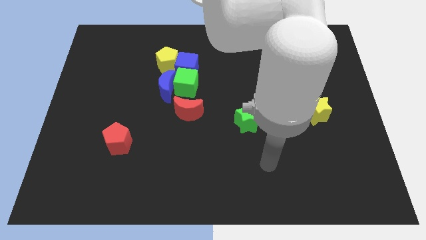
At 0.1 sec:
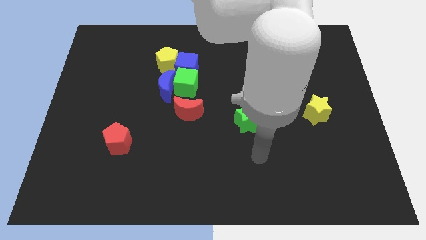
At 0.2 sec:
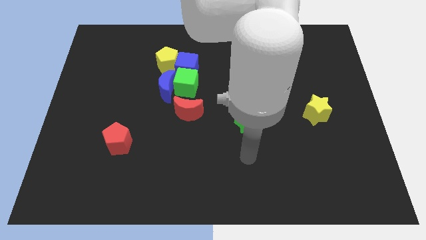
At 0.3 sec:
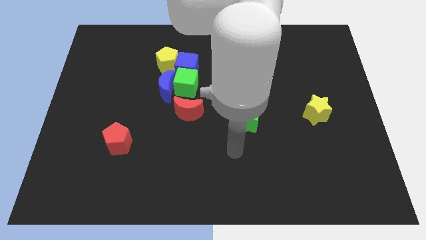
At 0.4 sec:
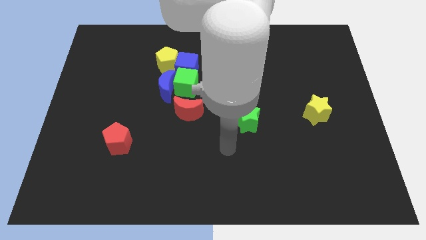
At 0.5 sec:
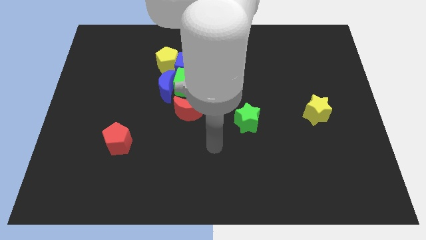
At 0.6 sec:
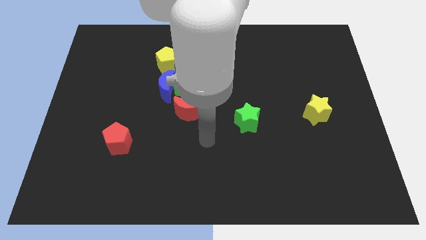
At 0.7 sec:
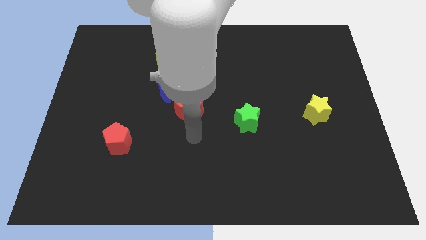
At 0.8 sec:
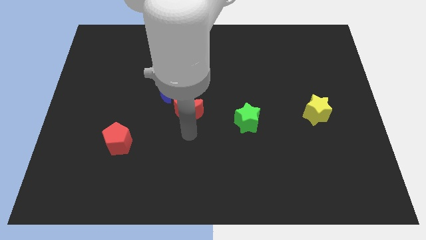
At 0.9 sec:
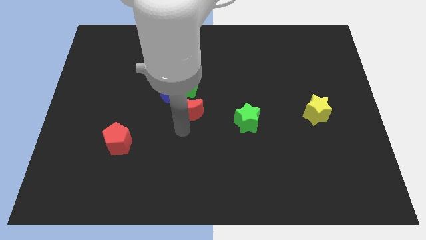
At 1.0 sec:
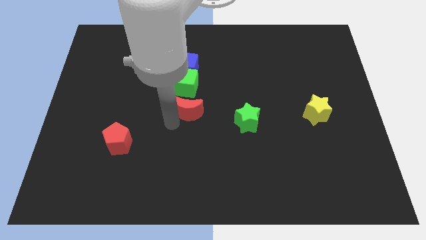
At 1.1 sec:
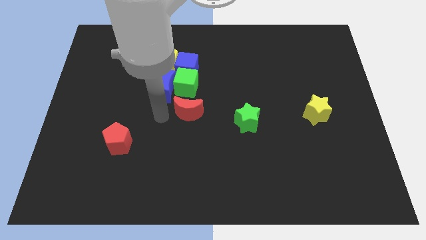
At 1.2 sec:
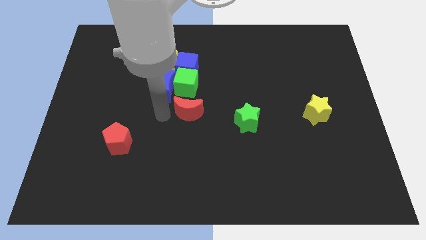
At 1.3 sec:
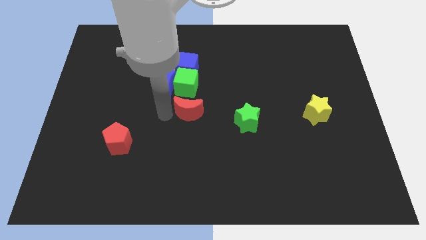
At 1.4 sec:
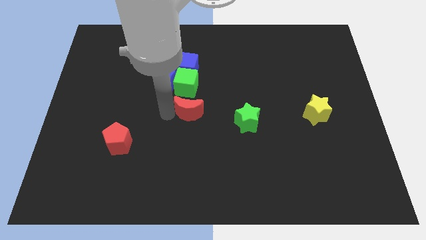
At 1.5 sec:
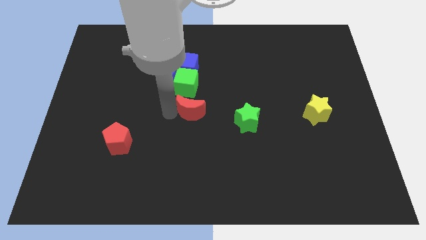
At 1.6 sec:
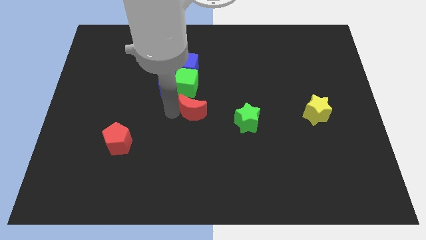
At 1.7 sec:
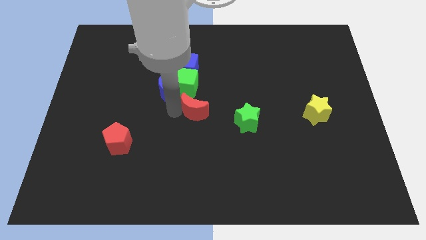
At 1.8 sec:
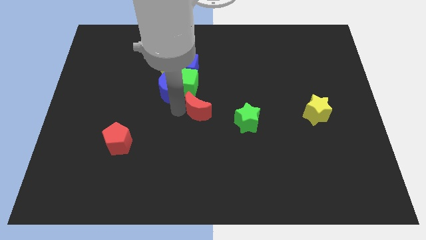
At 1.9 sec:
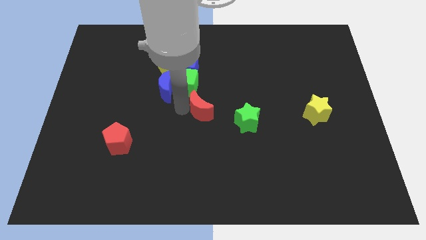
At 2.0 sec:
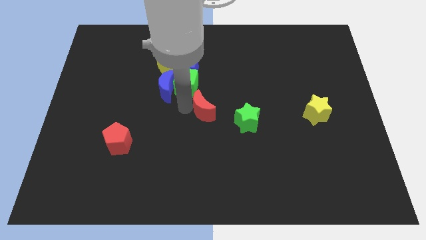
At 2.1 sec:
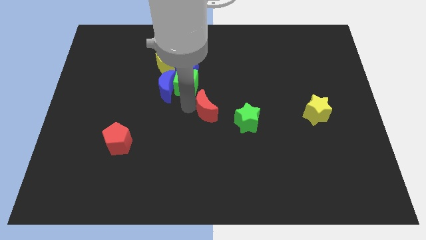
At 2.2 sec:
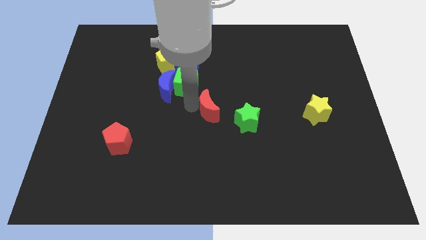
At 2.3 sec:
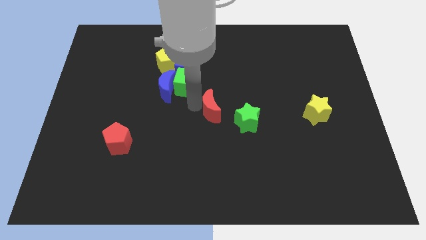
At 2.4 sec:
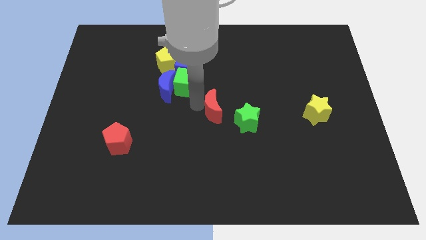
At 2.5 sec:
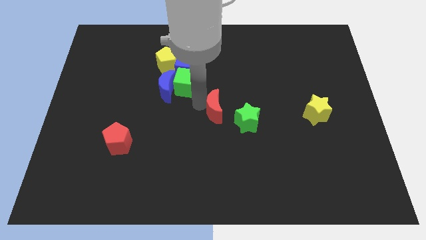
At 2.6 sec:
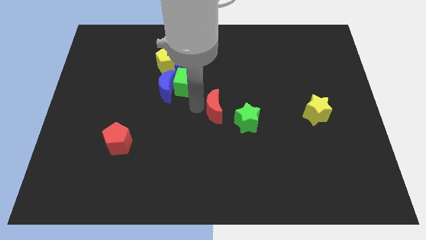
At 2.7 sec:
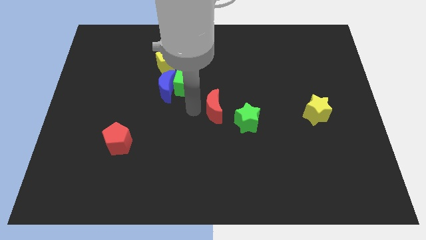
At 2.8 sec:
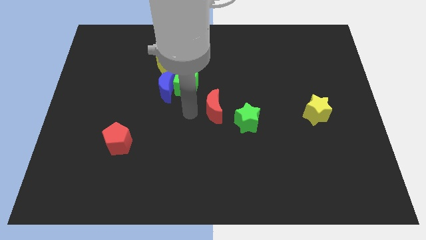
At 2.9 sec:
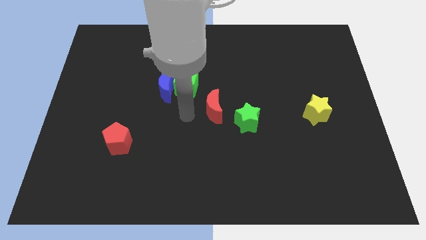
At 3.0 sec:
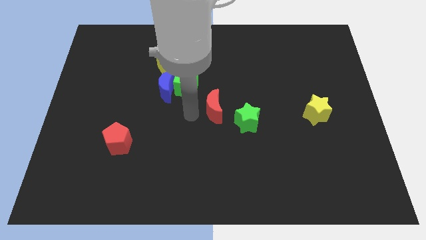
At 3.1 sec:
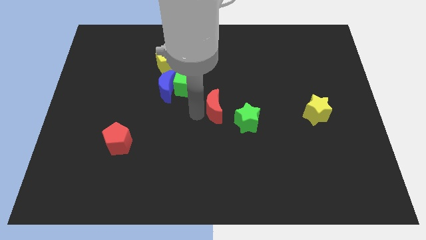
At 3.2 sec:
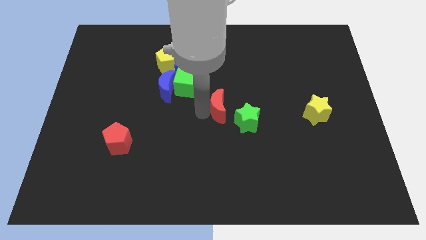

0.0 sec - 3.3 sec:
move the red moon a little bit right

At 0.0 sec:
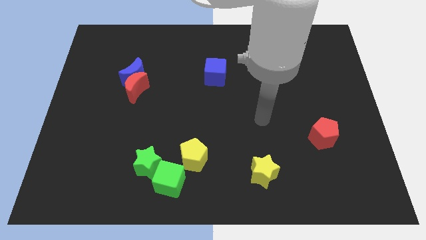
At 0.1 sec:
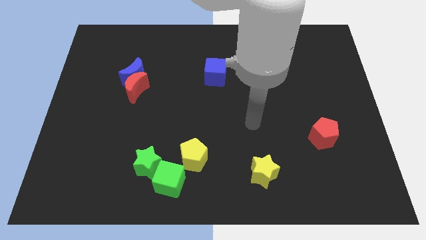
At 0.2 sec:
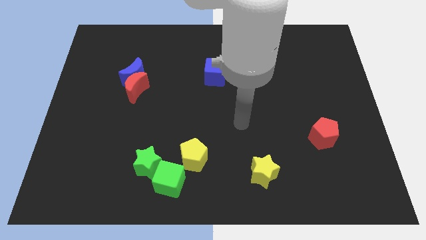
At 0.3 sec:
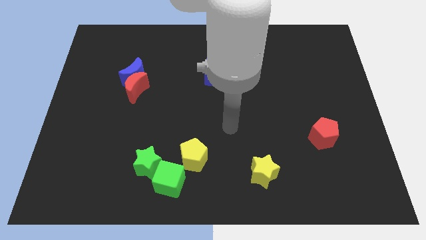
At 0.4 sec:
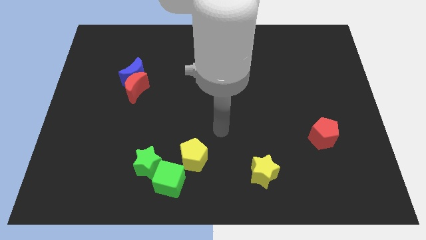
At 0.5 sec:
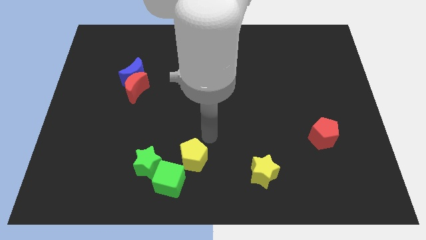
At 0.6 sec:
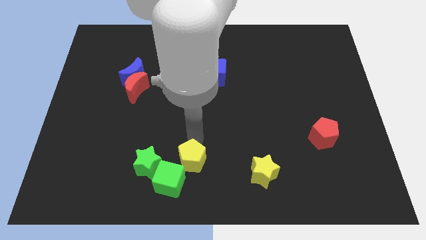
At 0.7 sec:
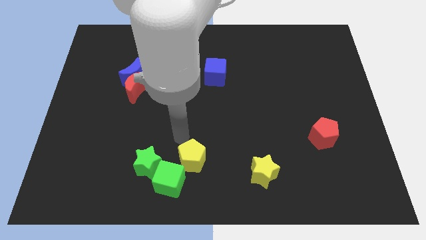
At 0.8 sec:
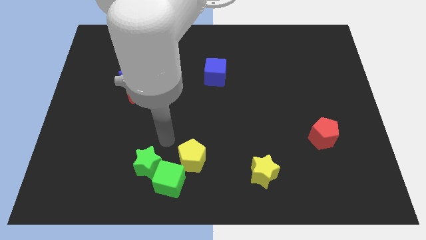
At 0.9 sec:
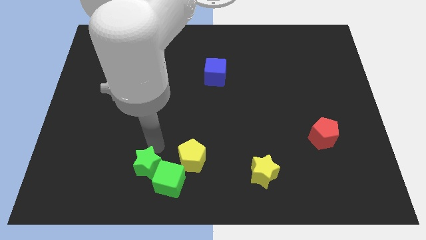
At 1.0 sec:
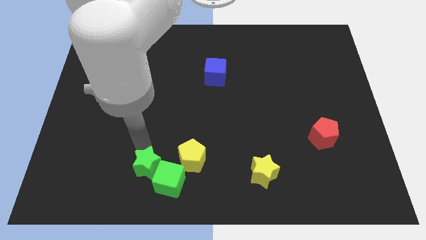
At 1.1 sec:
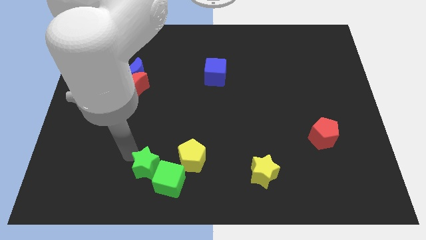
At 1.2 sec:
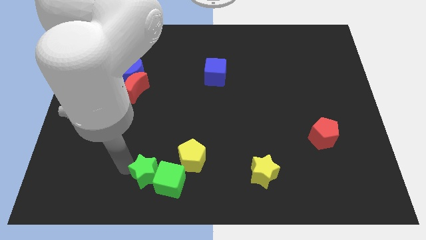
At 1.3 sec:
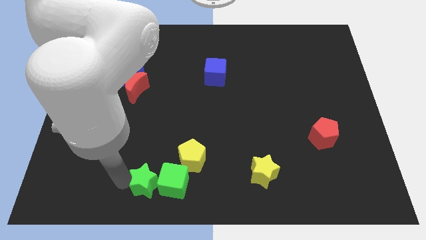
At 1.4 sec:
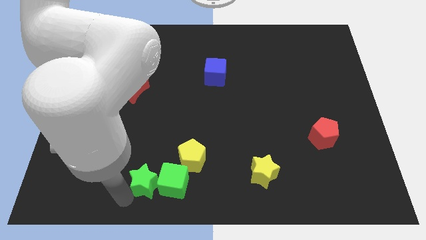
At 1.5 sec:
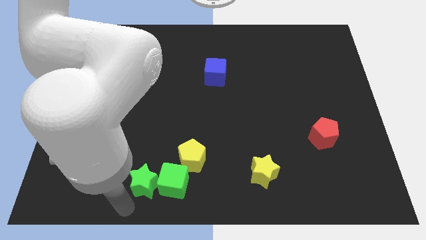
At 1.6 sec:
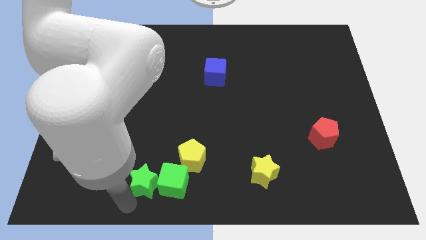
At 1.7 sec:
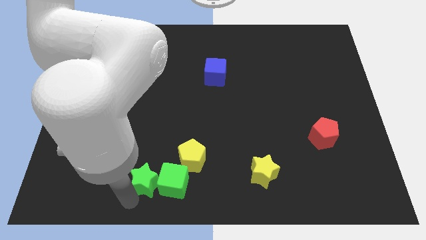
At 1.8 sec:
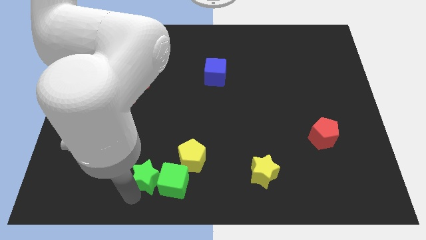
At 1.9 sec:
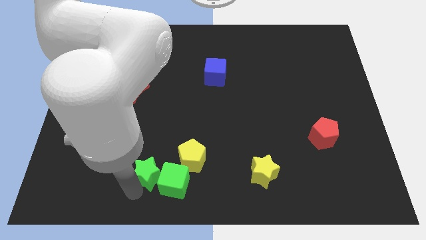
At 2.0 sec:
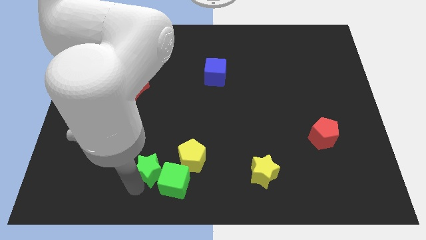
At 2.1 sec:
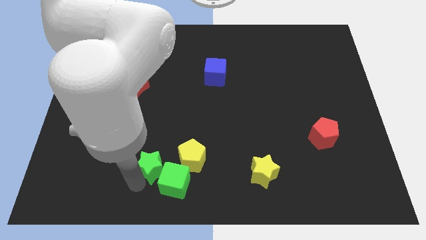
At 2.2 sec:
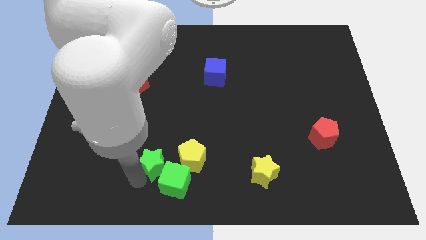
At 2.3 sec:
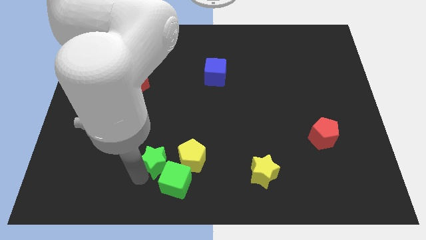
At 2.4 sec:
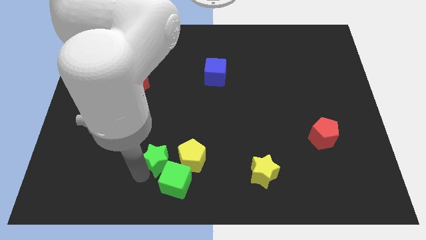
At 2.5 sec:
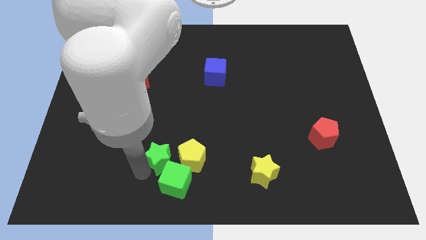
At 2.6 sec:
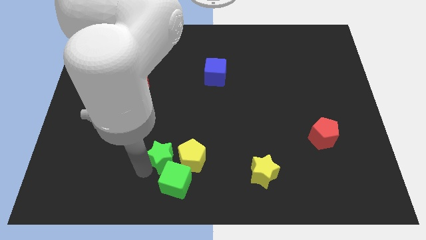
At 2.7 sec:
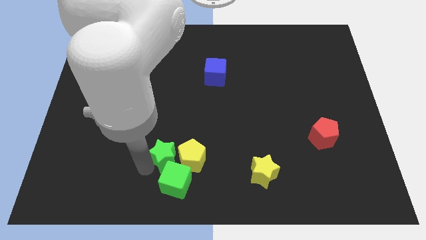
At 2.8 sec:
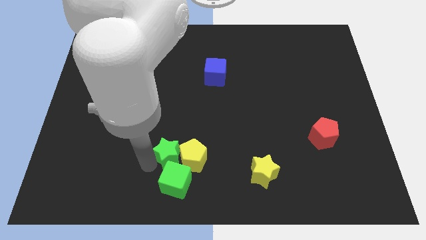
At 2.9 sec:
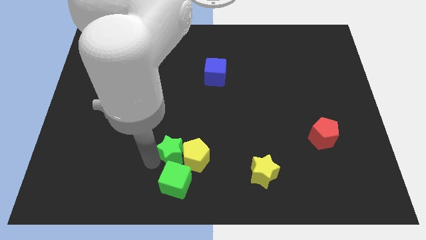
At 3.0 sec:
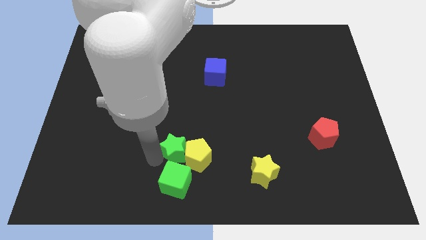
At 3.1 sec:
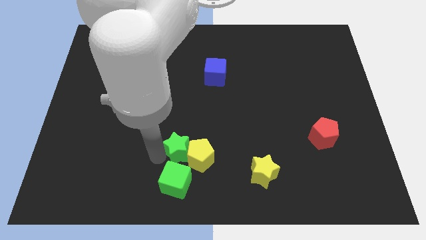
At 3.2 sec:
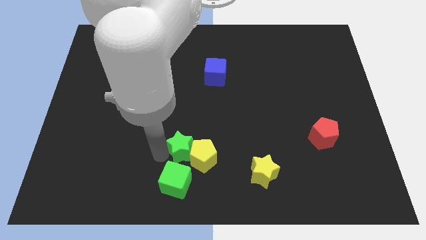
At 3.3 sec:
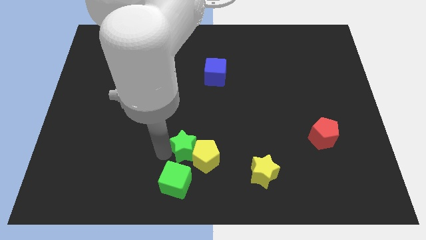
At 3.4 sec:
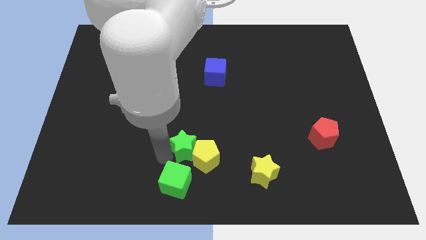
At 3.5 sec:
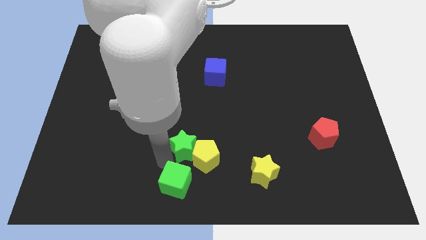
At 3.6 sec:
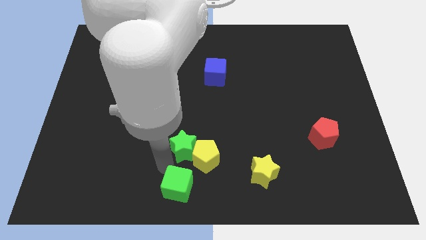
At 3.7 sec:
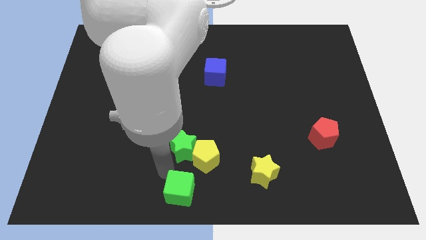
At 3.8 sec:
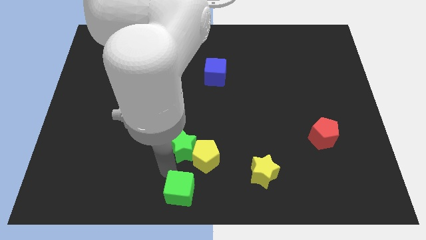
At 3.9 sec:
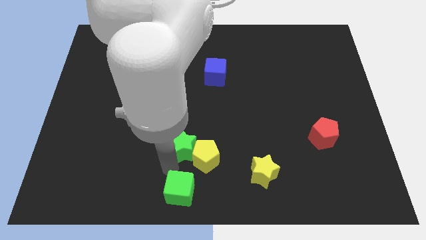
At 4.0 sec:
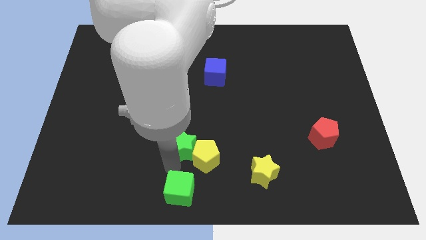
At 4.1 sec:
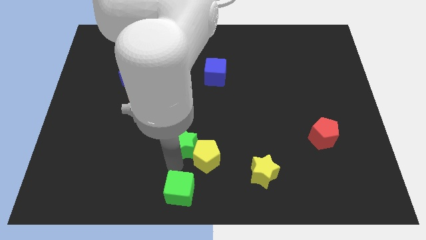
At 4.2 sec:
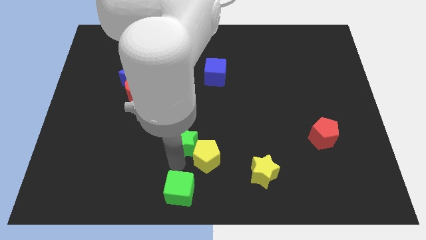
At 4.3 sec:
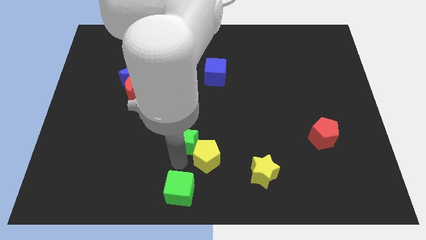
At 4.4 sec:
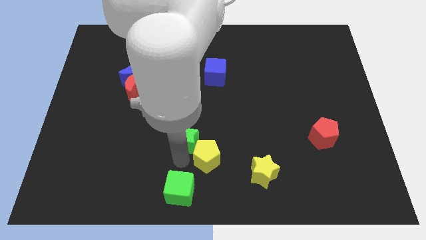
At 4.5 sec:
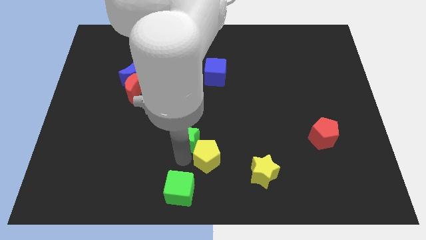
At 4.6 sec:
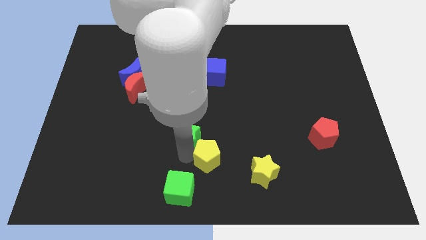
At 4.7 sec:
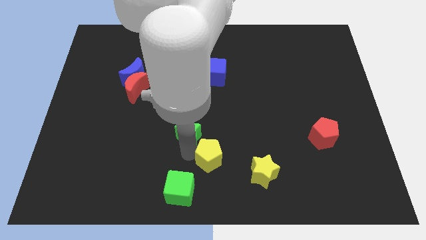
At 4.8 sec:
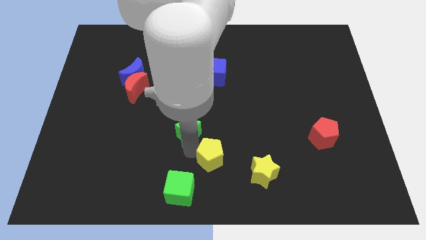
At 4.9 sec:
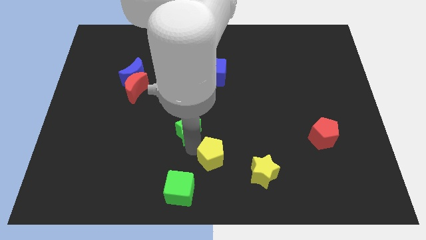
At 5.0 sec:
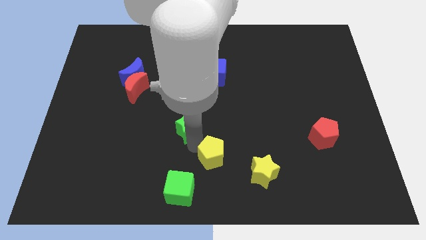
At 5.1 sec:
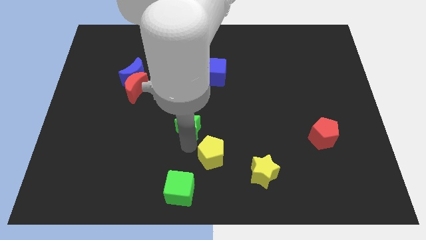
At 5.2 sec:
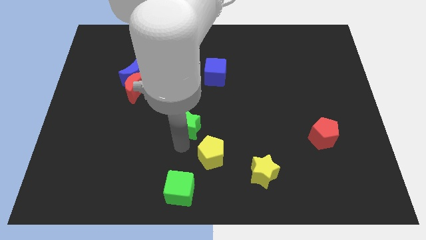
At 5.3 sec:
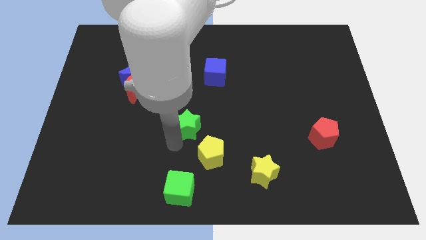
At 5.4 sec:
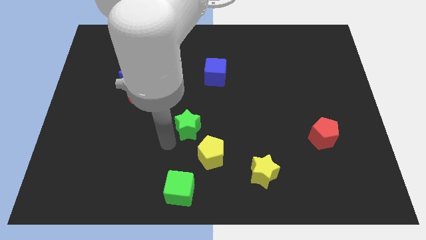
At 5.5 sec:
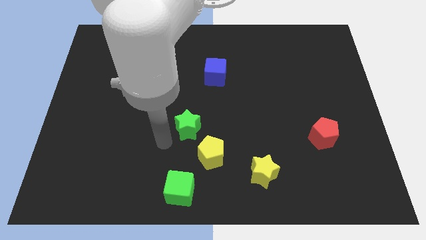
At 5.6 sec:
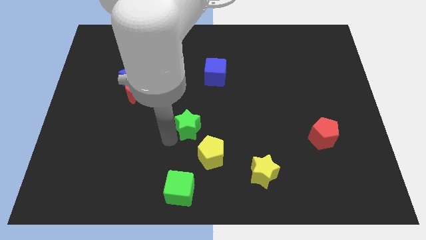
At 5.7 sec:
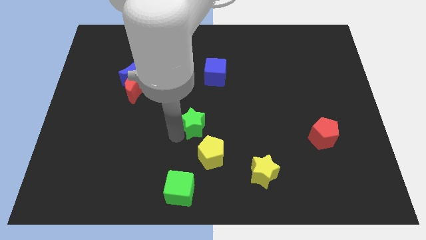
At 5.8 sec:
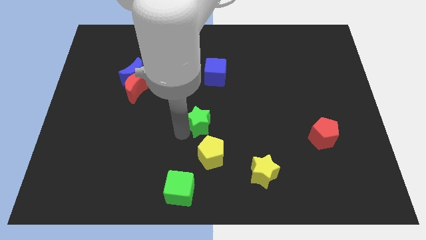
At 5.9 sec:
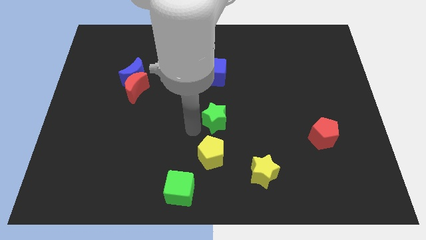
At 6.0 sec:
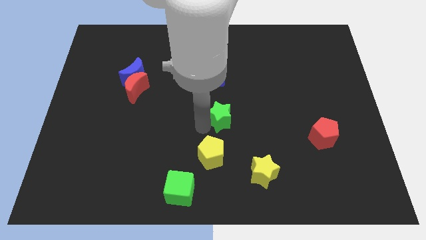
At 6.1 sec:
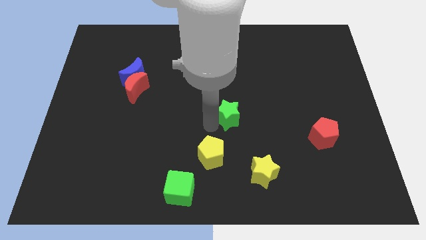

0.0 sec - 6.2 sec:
push the green star diagonally up and right
